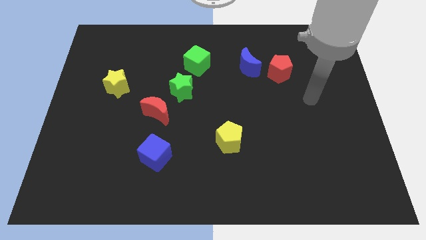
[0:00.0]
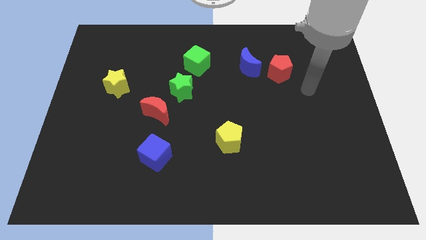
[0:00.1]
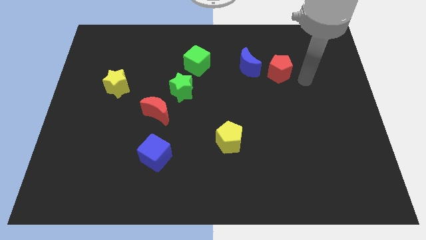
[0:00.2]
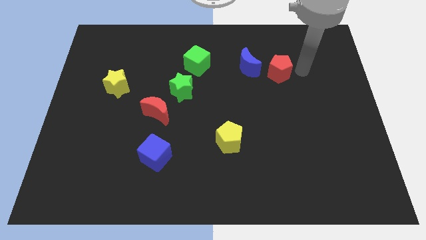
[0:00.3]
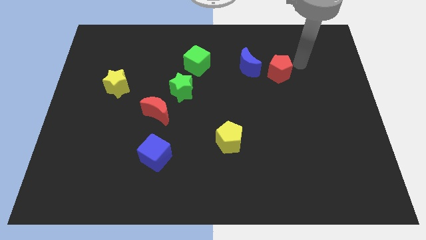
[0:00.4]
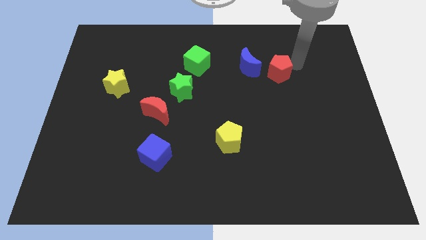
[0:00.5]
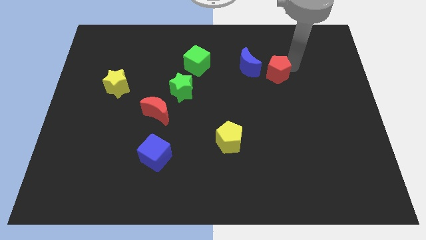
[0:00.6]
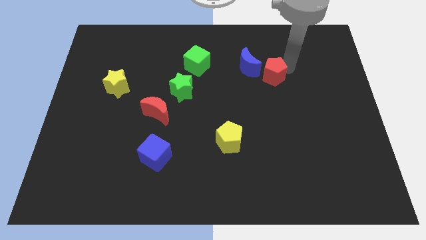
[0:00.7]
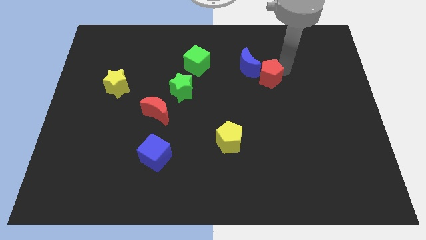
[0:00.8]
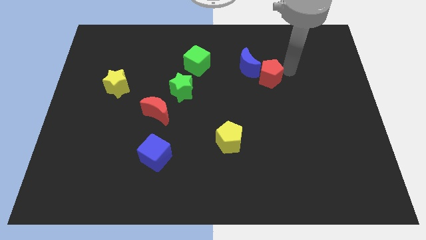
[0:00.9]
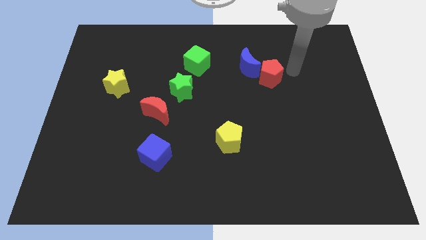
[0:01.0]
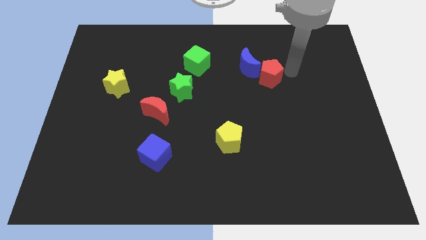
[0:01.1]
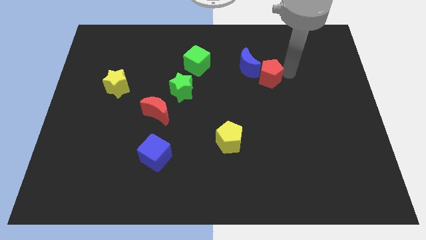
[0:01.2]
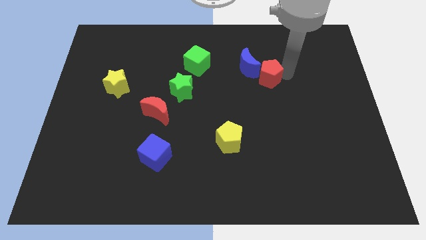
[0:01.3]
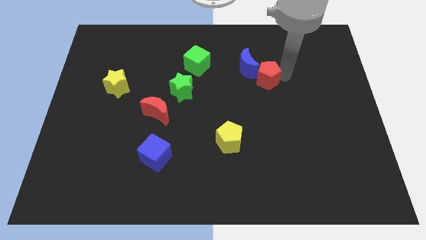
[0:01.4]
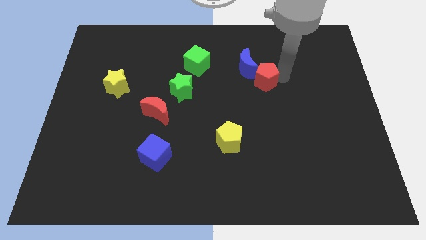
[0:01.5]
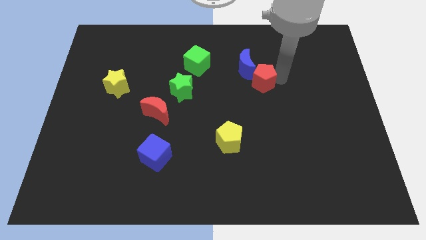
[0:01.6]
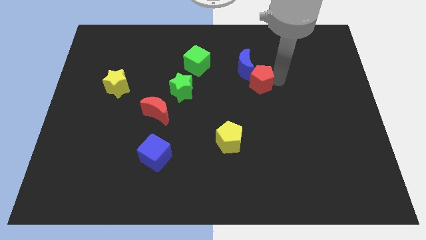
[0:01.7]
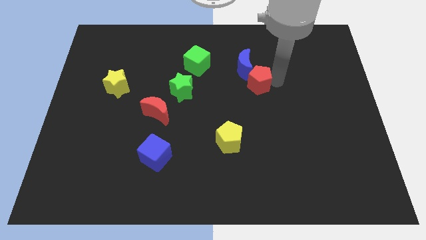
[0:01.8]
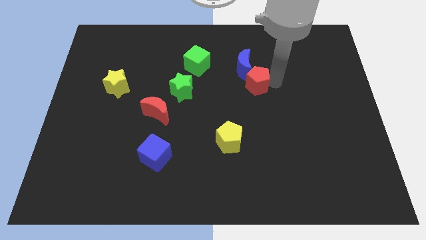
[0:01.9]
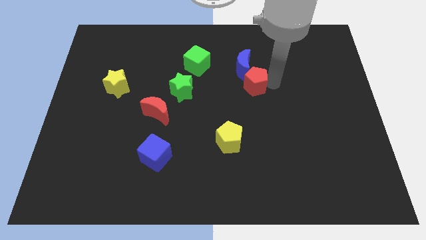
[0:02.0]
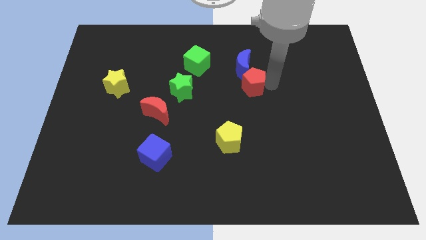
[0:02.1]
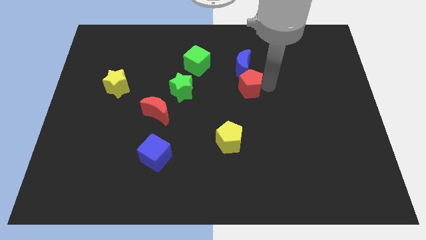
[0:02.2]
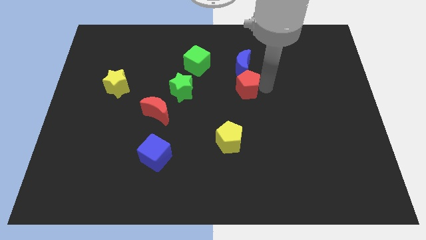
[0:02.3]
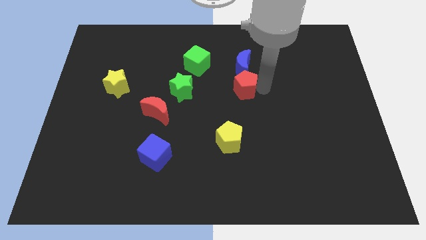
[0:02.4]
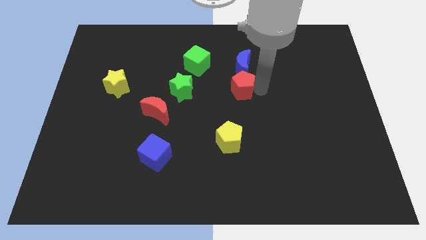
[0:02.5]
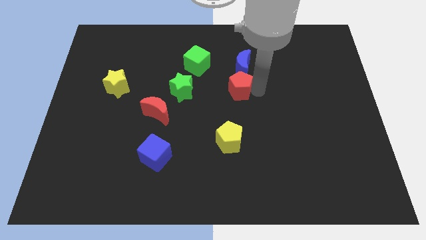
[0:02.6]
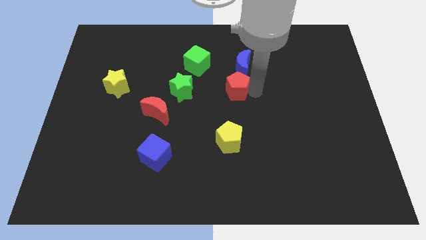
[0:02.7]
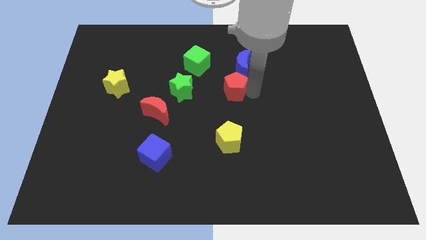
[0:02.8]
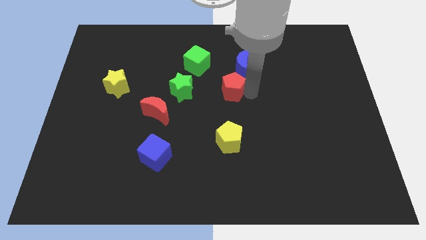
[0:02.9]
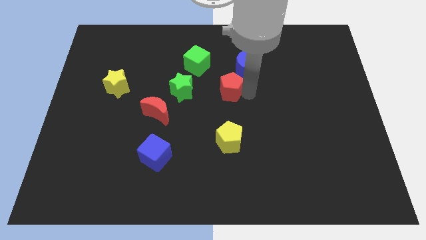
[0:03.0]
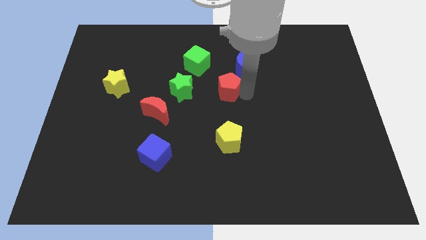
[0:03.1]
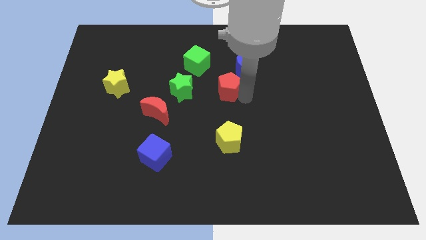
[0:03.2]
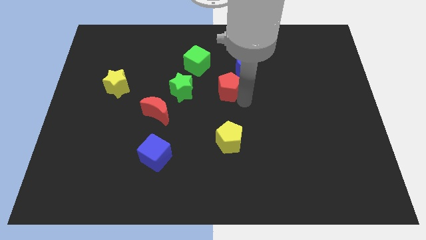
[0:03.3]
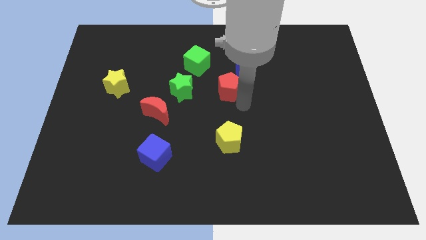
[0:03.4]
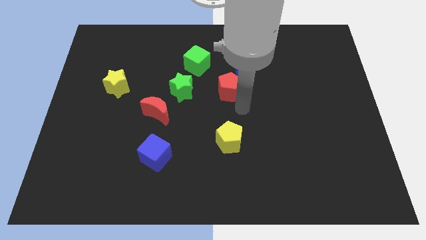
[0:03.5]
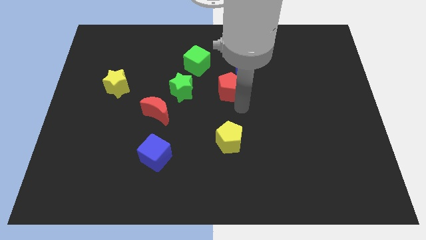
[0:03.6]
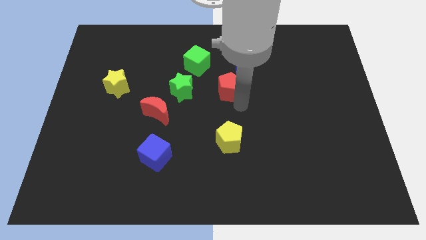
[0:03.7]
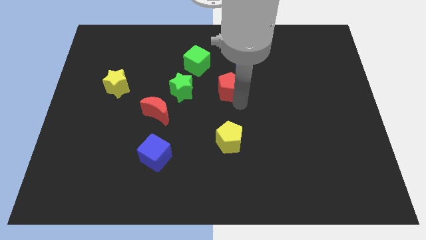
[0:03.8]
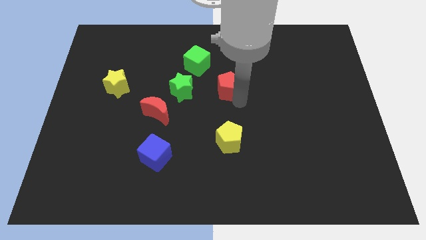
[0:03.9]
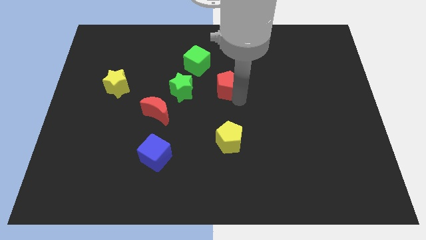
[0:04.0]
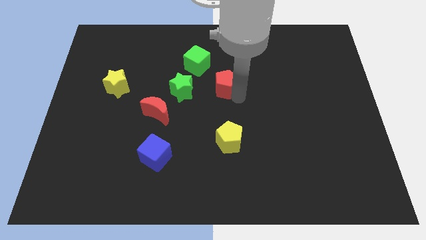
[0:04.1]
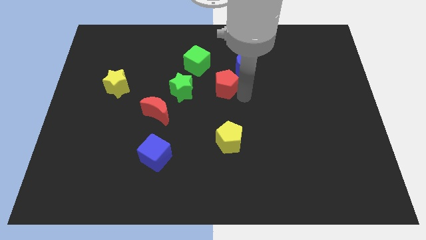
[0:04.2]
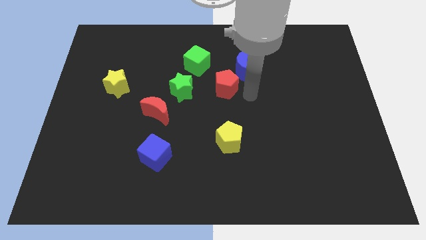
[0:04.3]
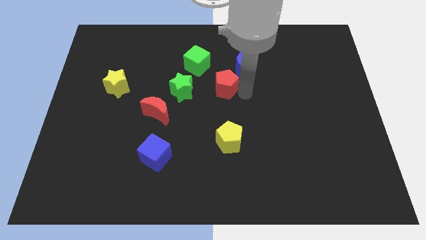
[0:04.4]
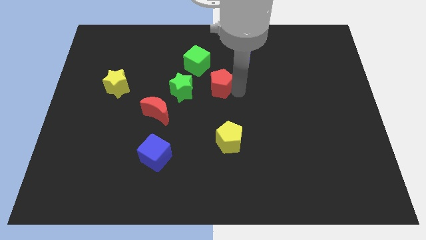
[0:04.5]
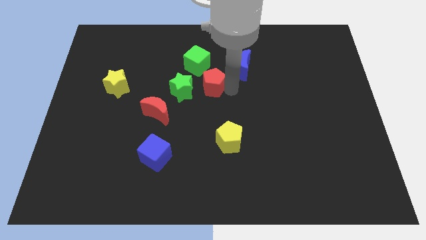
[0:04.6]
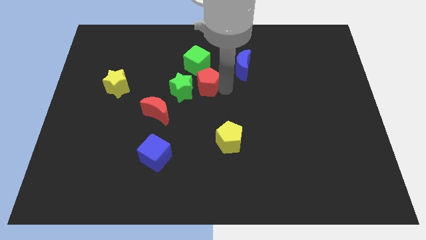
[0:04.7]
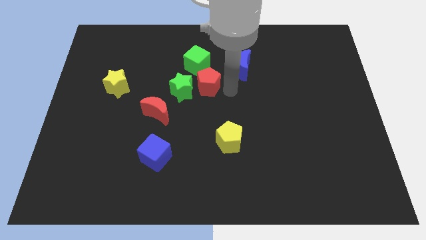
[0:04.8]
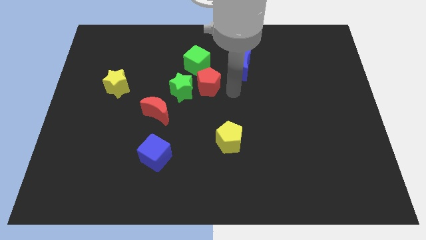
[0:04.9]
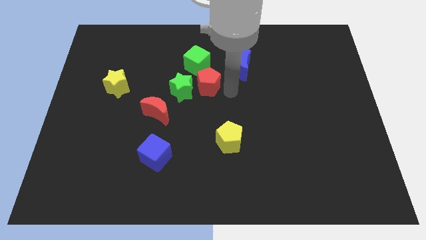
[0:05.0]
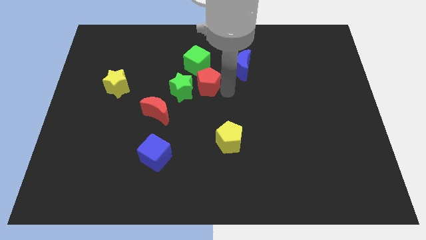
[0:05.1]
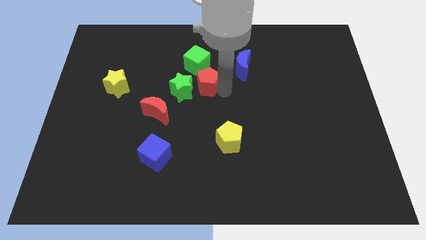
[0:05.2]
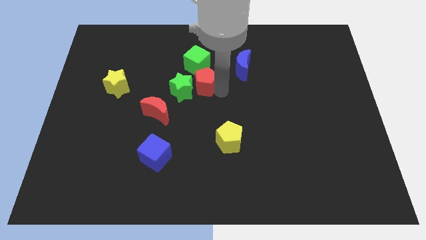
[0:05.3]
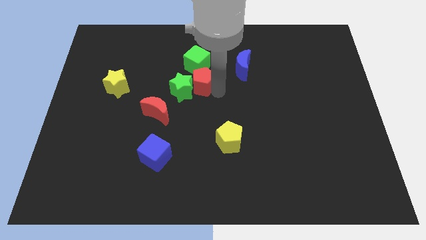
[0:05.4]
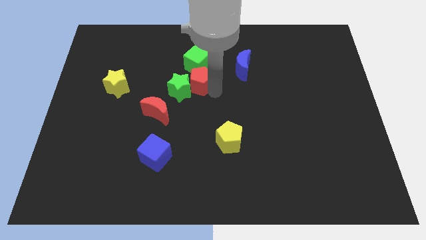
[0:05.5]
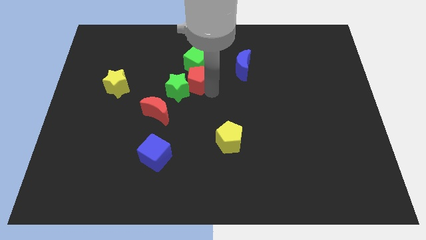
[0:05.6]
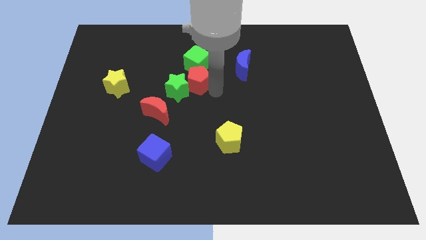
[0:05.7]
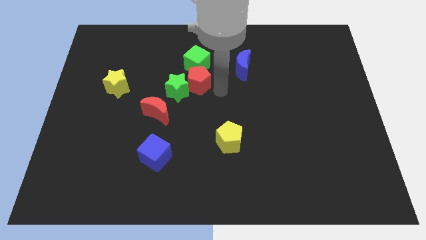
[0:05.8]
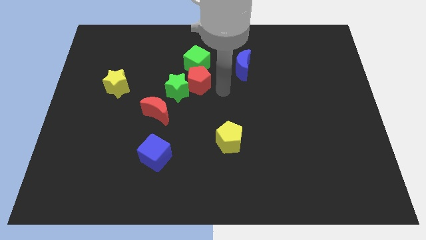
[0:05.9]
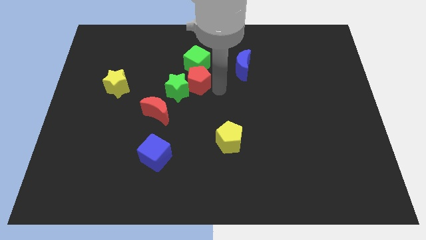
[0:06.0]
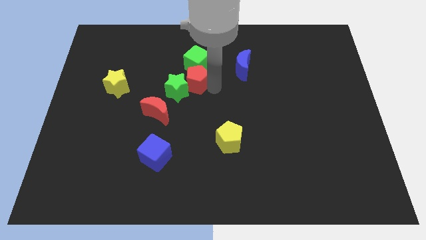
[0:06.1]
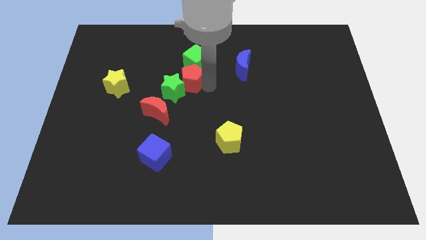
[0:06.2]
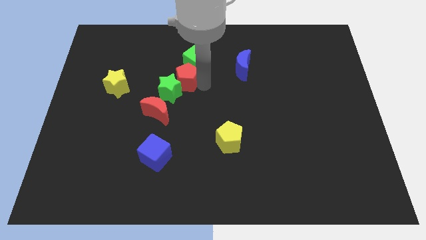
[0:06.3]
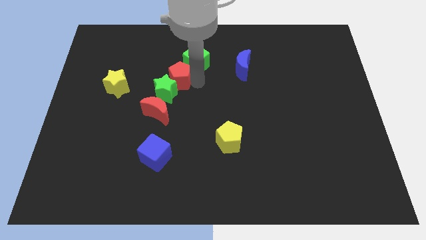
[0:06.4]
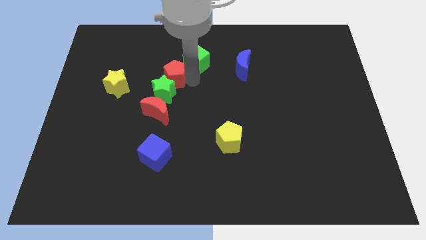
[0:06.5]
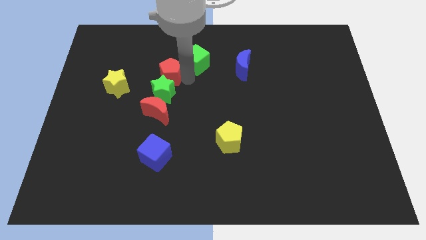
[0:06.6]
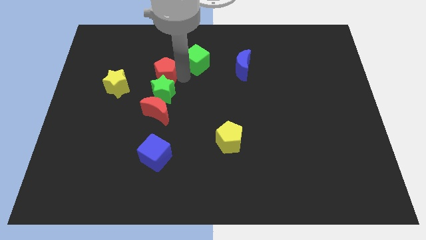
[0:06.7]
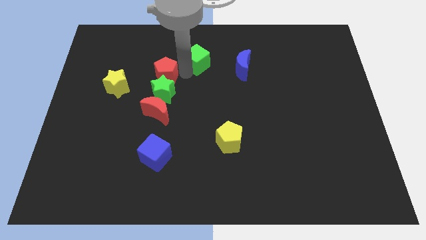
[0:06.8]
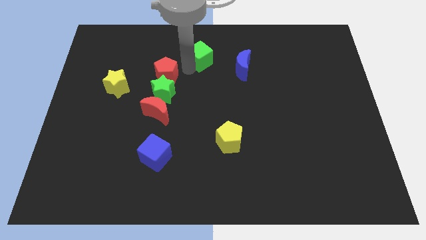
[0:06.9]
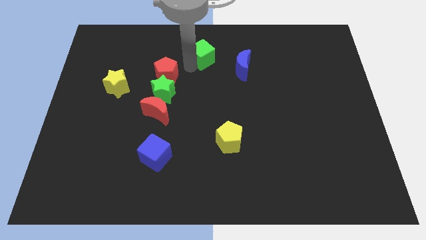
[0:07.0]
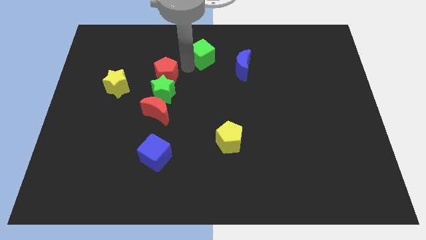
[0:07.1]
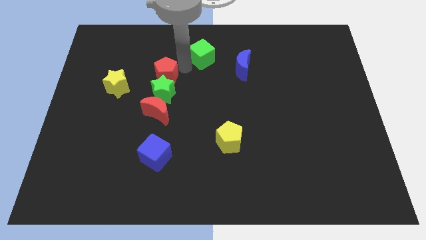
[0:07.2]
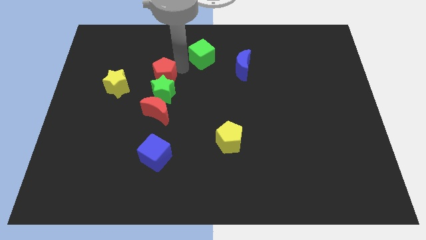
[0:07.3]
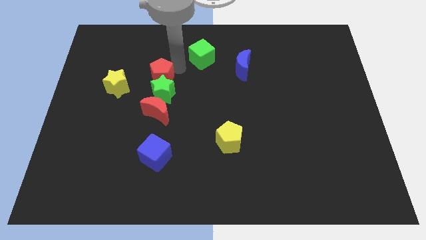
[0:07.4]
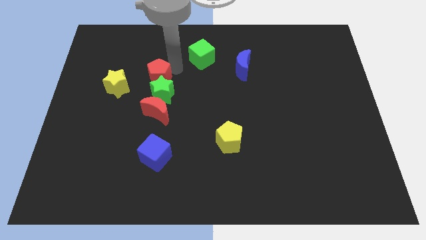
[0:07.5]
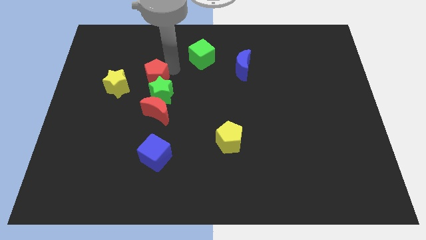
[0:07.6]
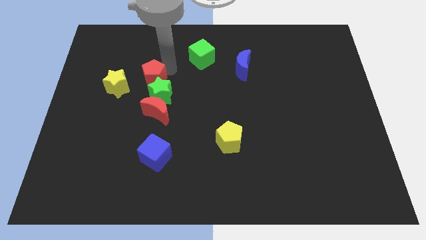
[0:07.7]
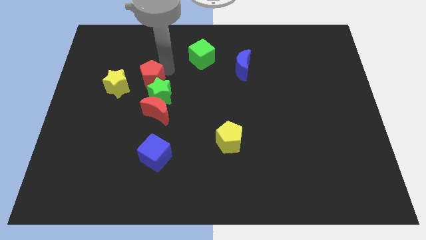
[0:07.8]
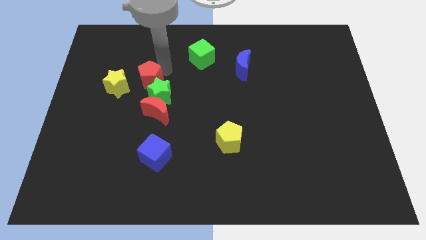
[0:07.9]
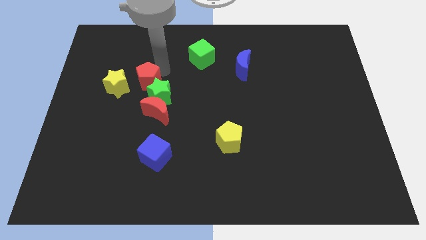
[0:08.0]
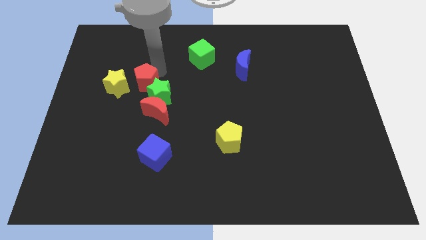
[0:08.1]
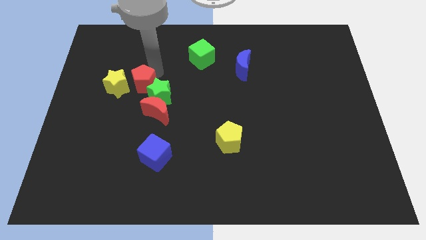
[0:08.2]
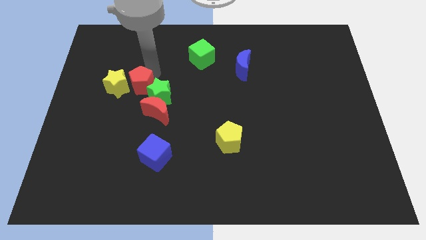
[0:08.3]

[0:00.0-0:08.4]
push the red pentagon close to the yellow star
